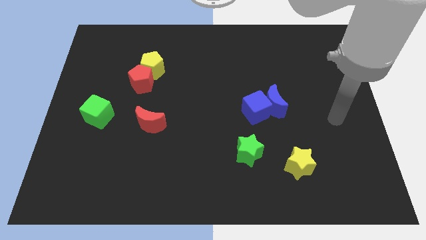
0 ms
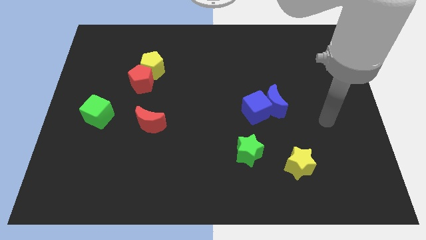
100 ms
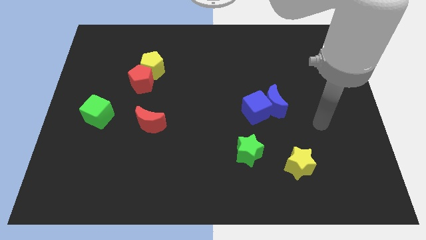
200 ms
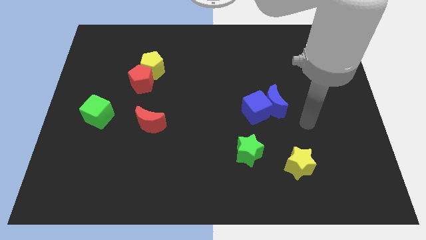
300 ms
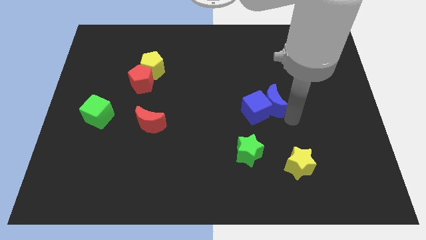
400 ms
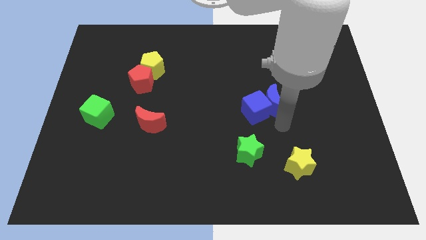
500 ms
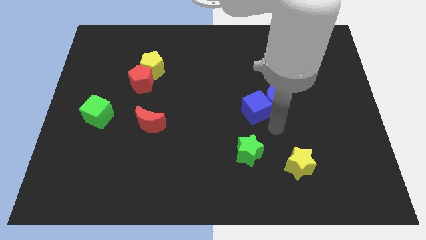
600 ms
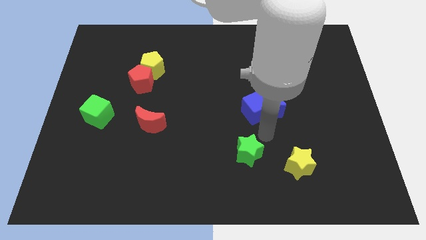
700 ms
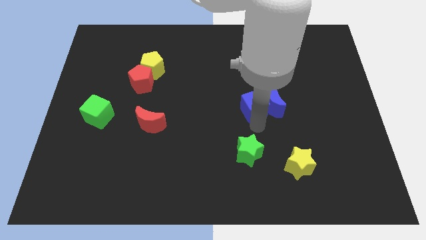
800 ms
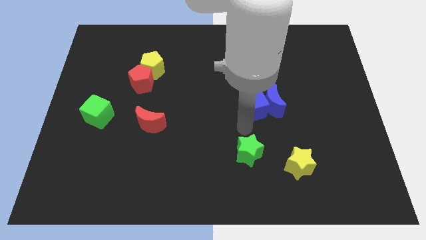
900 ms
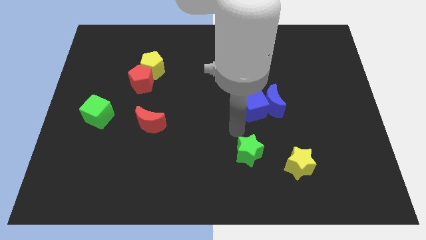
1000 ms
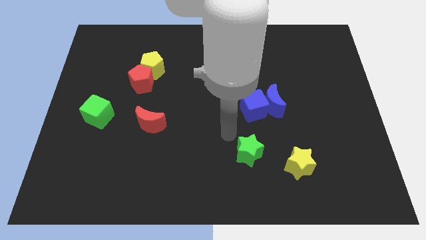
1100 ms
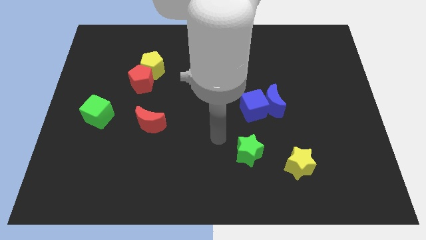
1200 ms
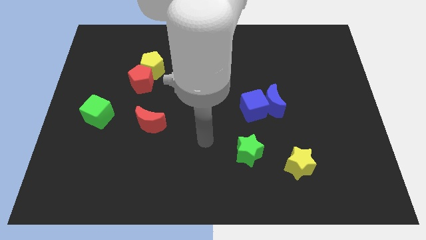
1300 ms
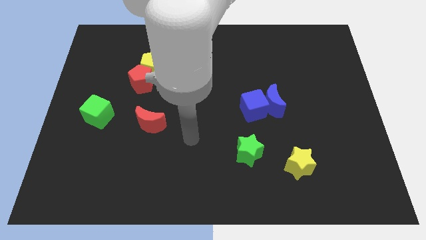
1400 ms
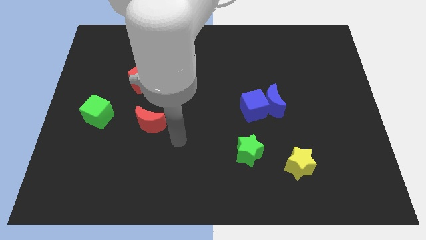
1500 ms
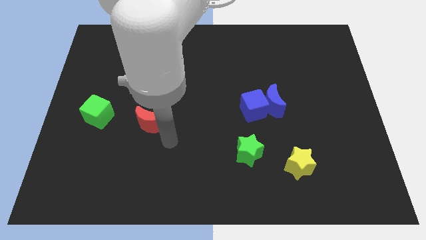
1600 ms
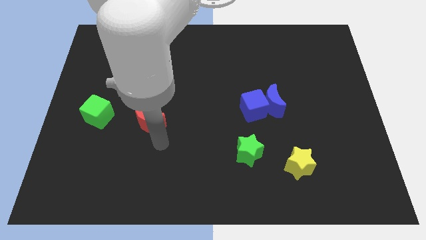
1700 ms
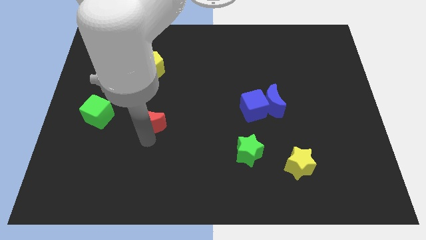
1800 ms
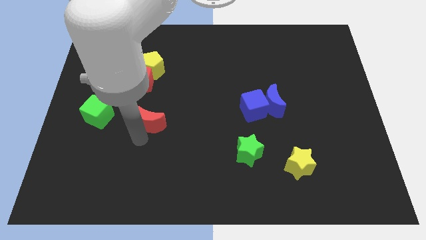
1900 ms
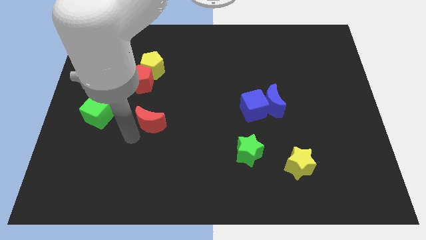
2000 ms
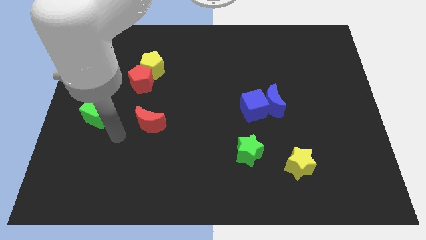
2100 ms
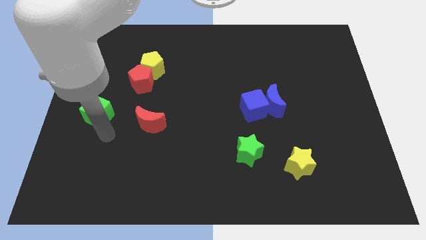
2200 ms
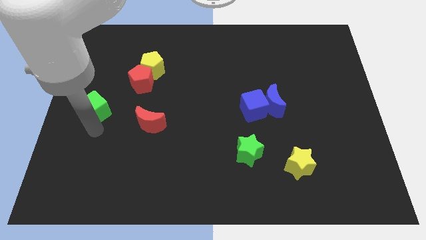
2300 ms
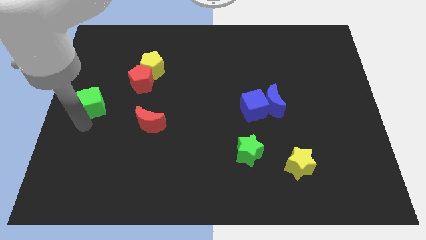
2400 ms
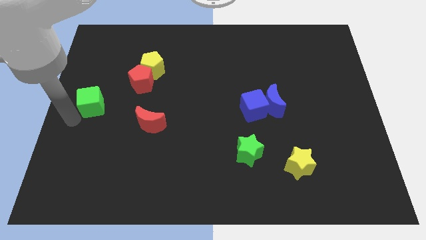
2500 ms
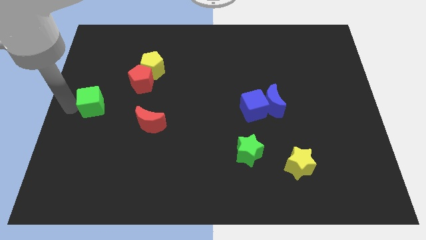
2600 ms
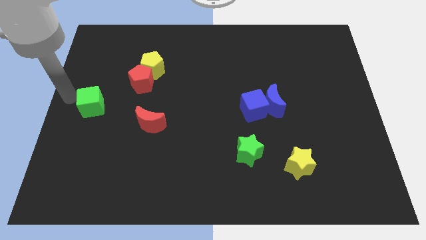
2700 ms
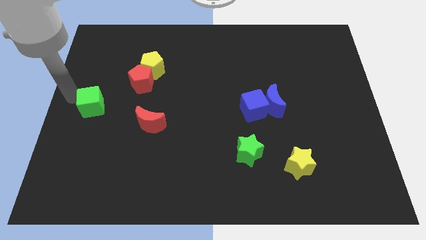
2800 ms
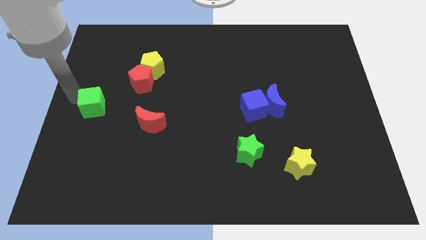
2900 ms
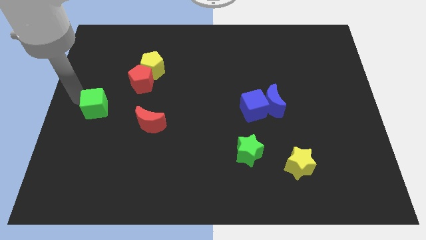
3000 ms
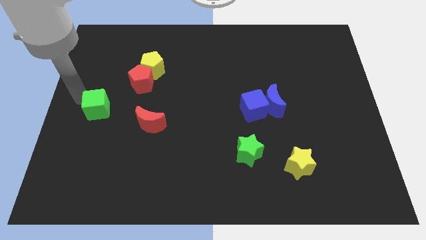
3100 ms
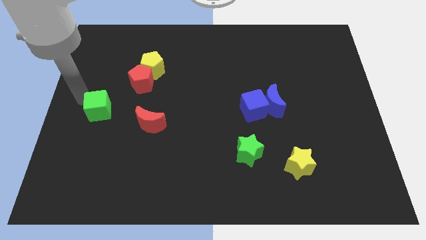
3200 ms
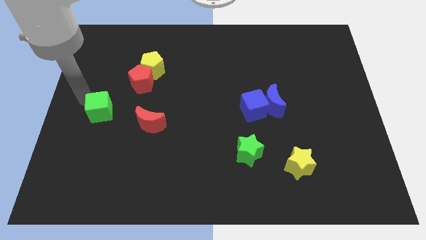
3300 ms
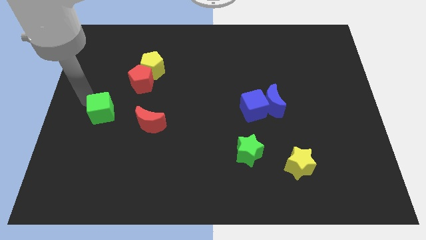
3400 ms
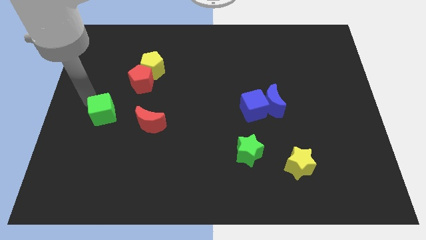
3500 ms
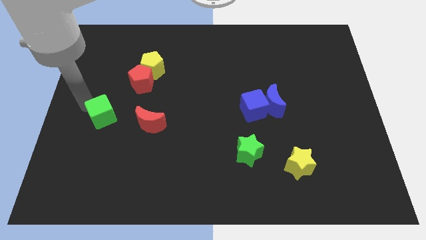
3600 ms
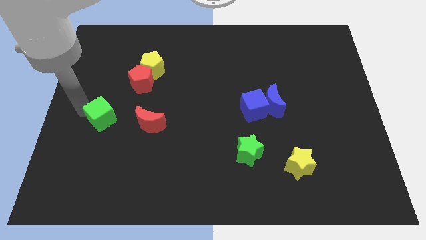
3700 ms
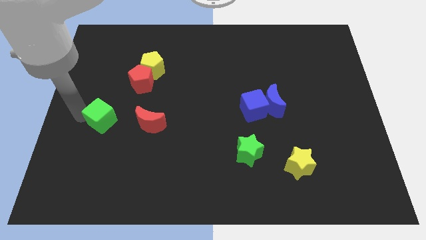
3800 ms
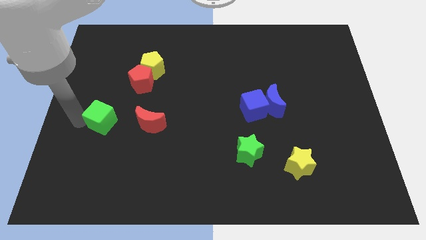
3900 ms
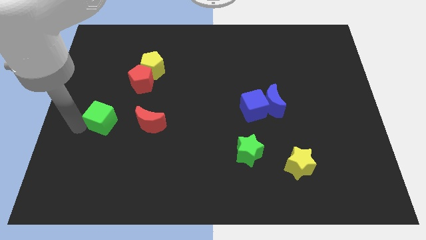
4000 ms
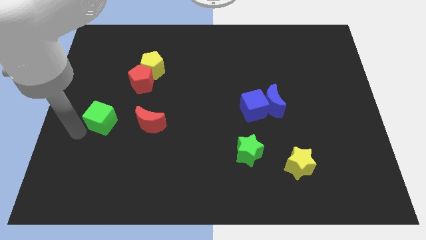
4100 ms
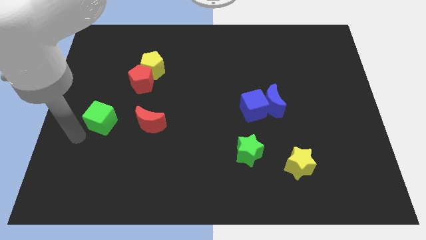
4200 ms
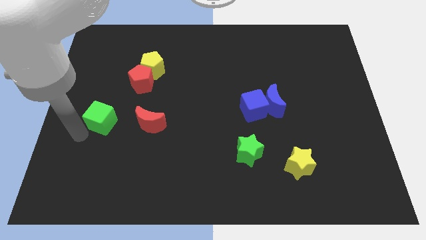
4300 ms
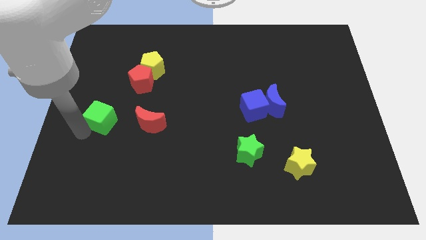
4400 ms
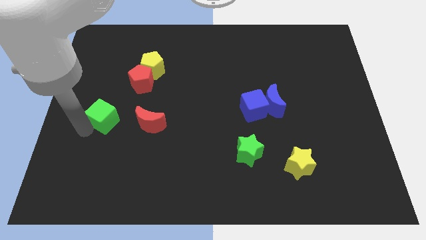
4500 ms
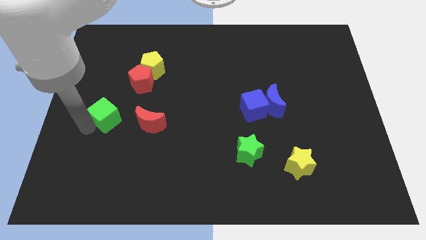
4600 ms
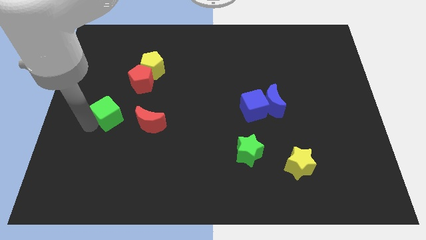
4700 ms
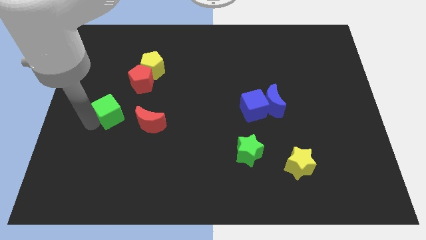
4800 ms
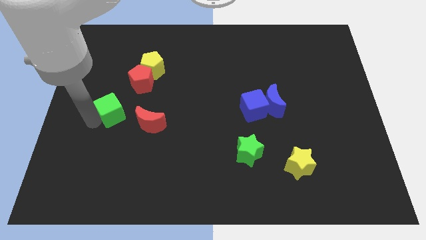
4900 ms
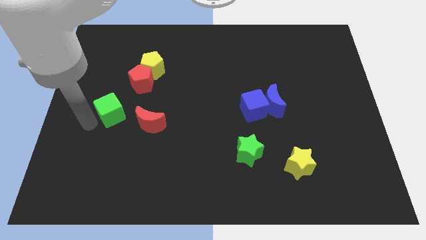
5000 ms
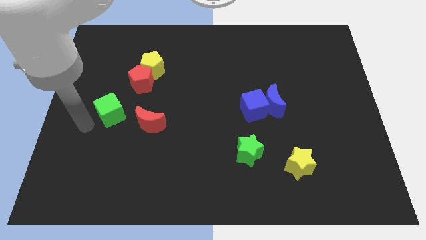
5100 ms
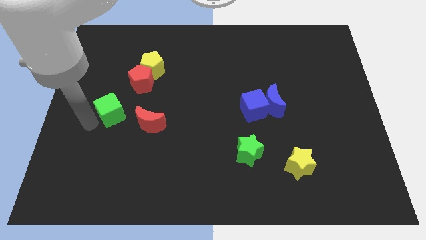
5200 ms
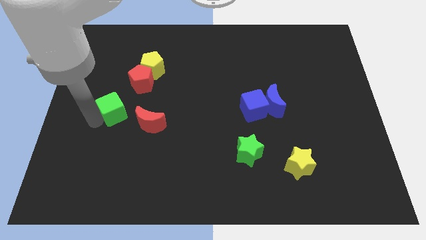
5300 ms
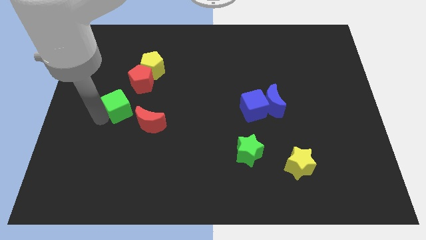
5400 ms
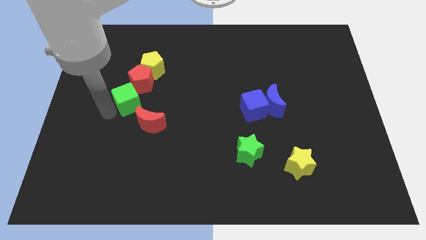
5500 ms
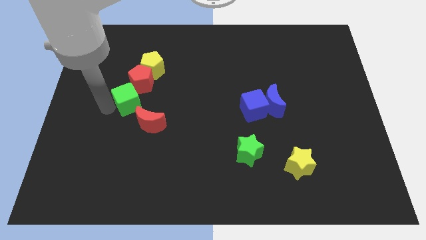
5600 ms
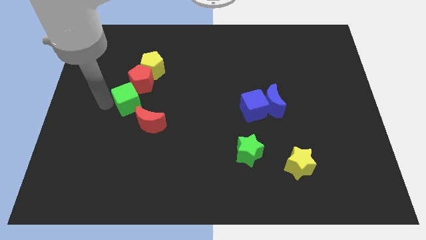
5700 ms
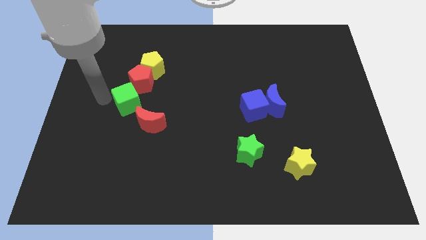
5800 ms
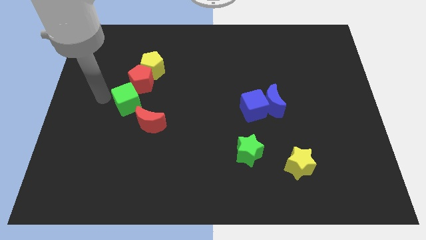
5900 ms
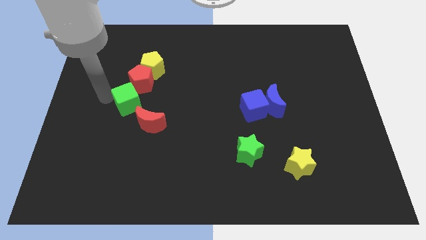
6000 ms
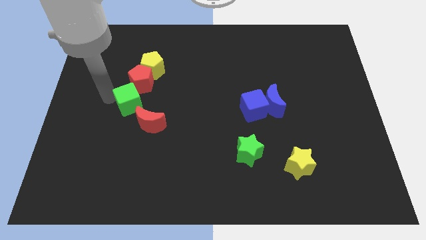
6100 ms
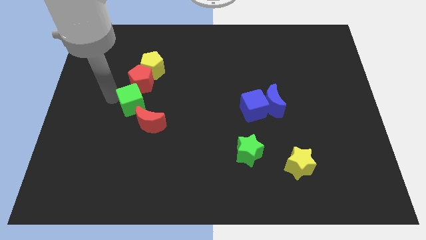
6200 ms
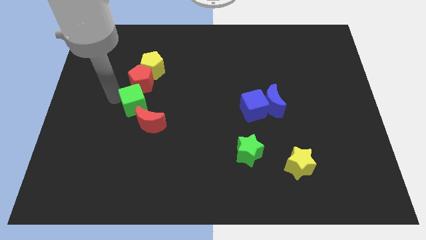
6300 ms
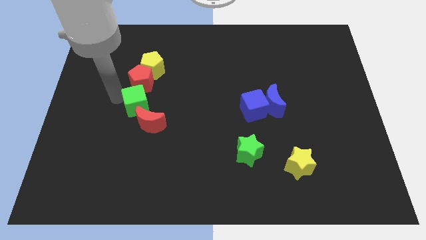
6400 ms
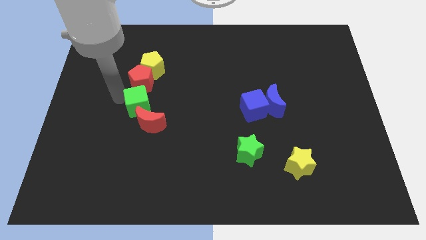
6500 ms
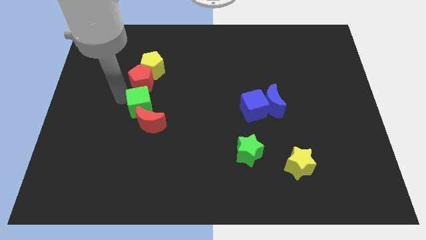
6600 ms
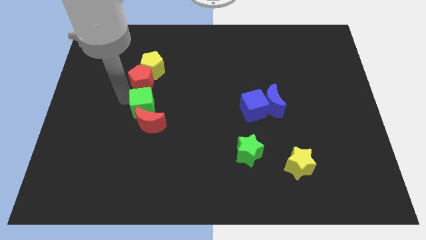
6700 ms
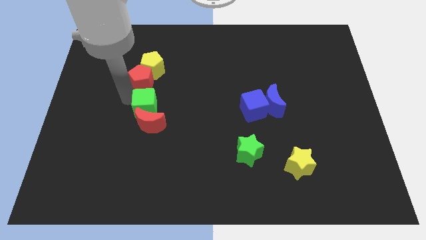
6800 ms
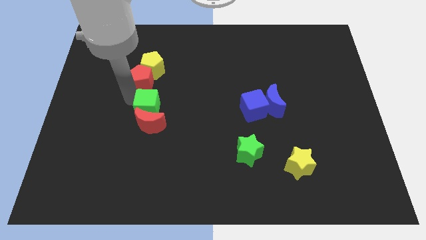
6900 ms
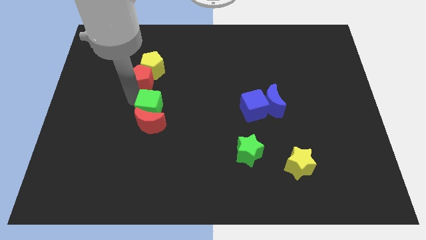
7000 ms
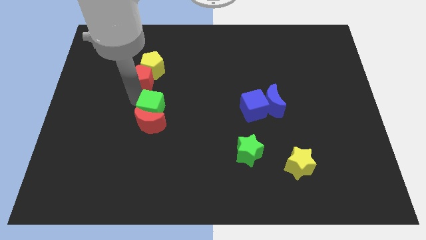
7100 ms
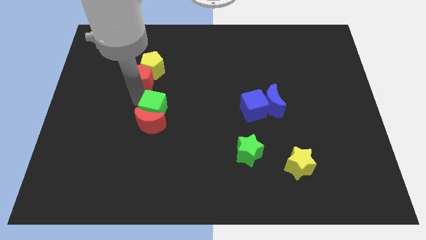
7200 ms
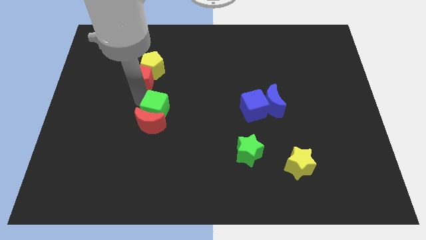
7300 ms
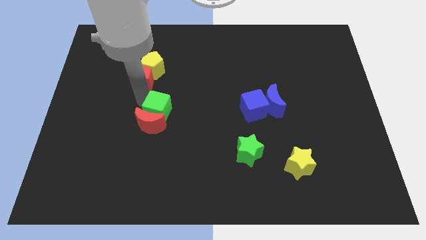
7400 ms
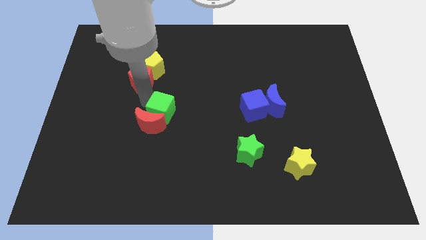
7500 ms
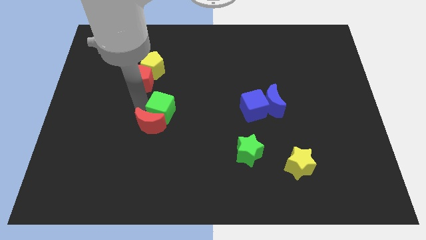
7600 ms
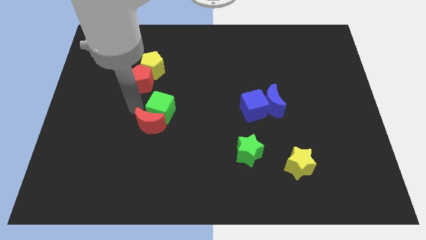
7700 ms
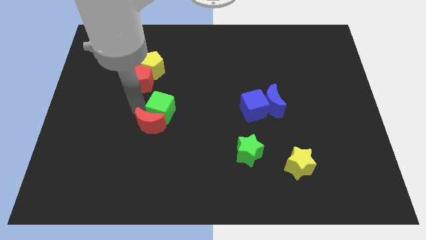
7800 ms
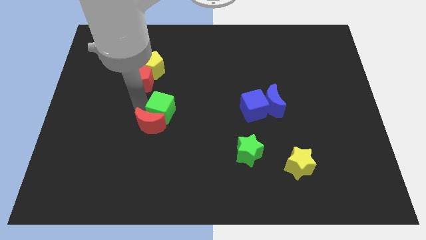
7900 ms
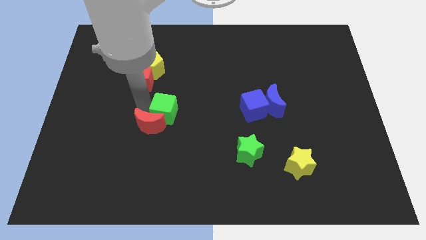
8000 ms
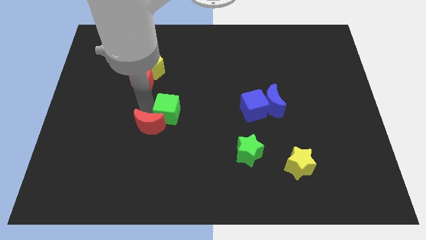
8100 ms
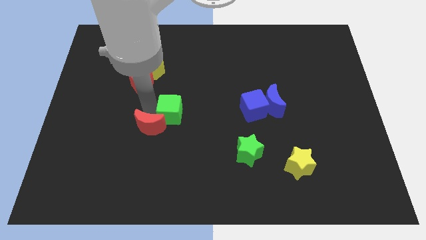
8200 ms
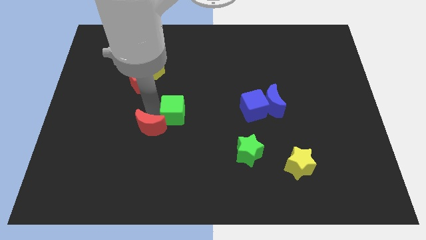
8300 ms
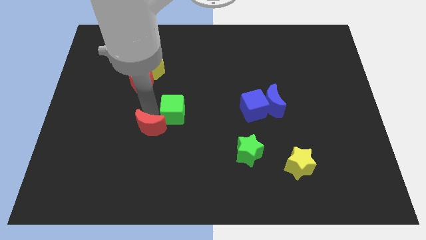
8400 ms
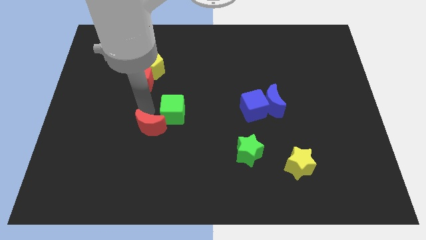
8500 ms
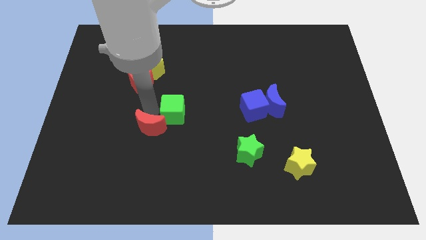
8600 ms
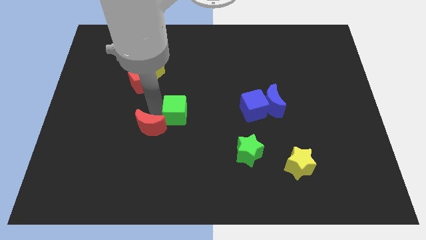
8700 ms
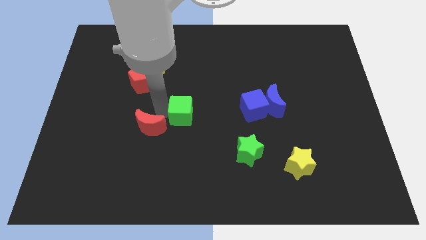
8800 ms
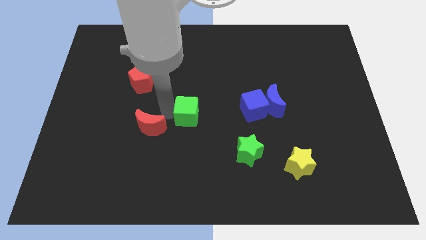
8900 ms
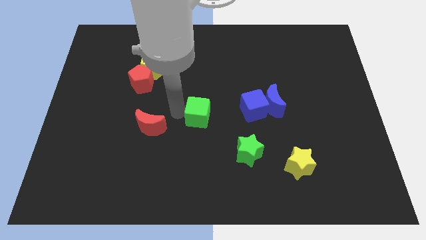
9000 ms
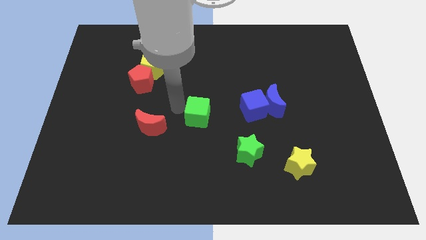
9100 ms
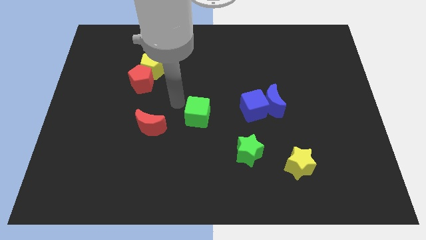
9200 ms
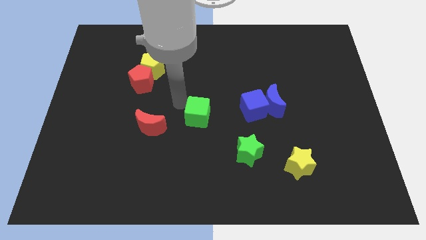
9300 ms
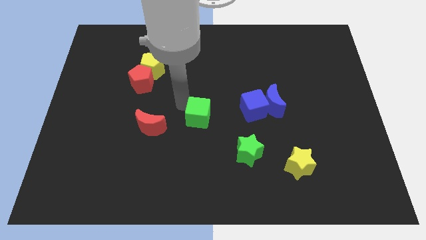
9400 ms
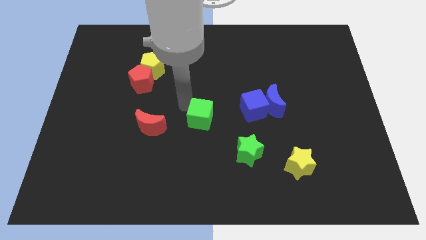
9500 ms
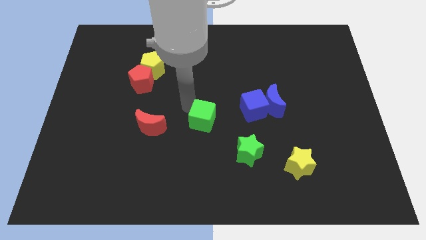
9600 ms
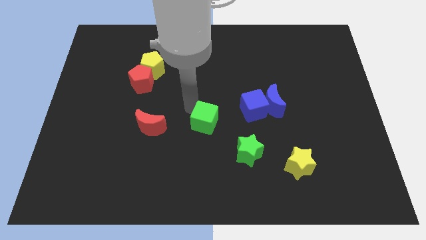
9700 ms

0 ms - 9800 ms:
put the green cube to the top left of the green star
